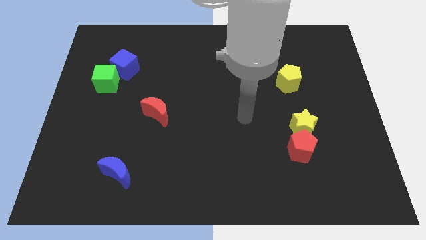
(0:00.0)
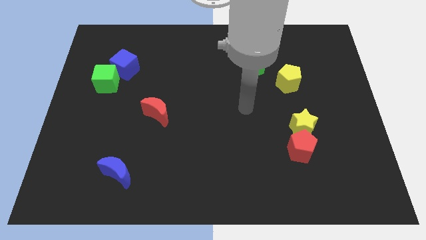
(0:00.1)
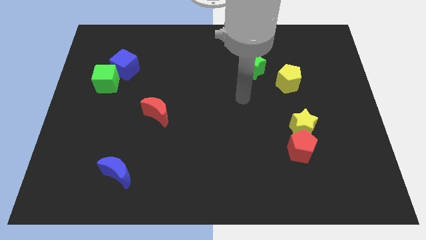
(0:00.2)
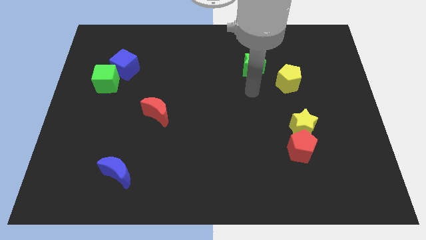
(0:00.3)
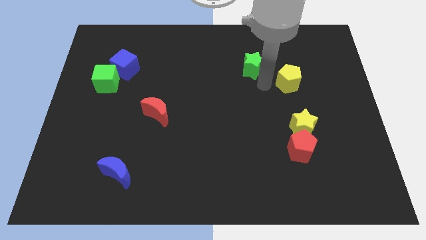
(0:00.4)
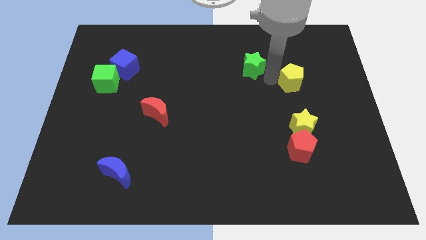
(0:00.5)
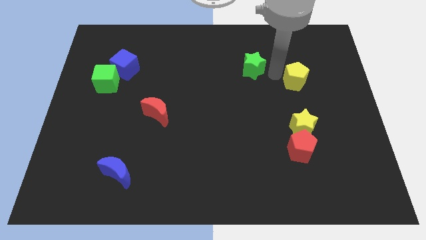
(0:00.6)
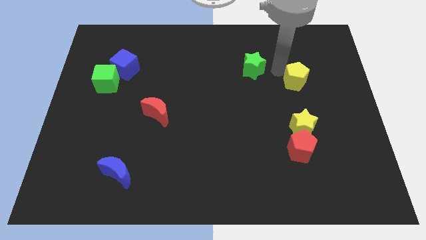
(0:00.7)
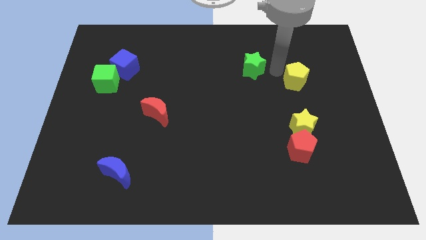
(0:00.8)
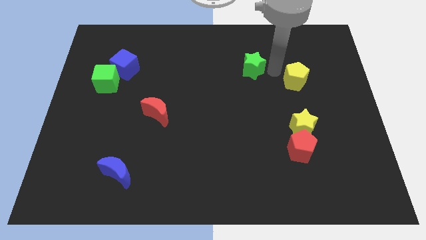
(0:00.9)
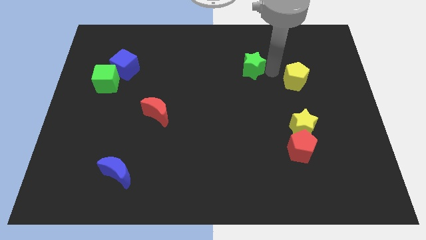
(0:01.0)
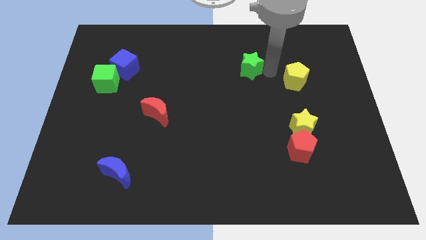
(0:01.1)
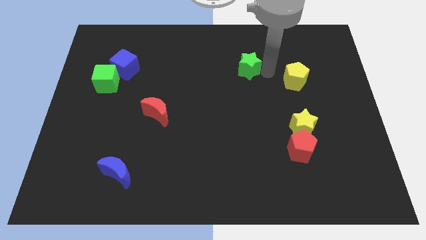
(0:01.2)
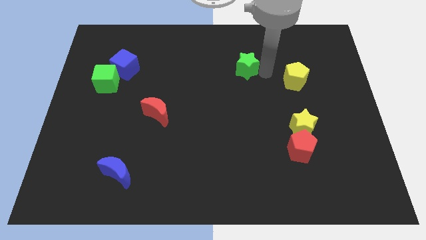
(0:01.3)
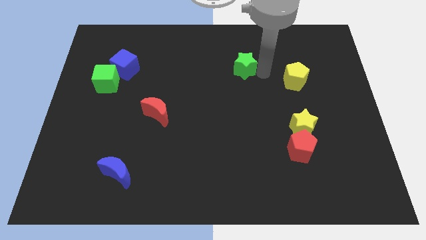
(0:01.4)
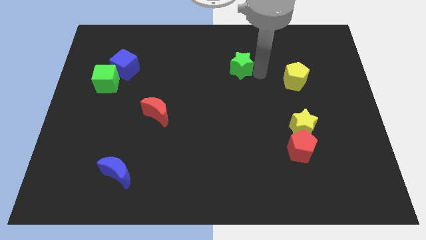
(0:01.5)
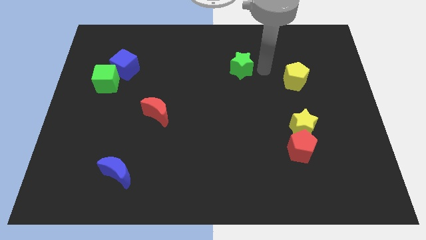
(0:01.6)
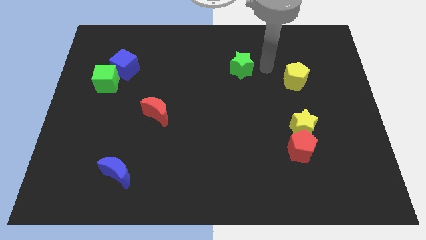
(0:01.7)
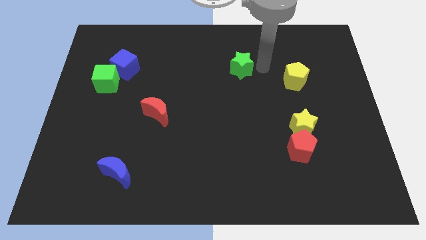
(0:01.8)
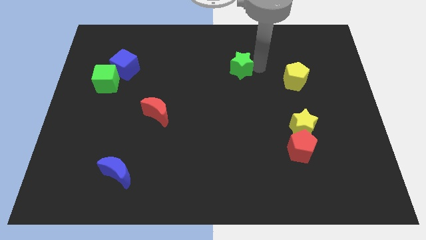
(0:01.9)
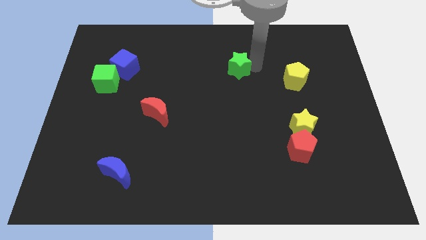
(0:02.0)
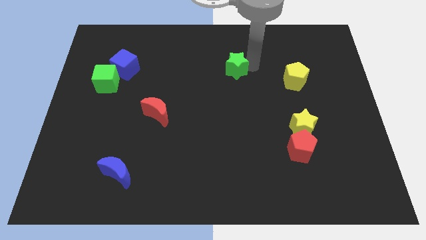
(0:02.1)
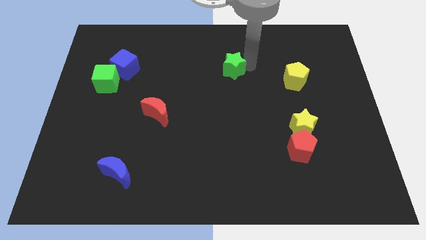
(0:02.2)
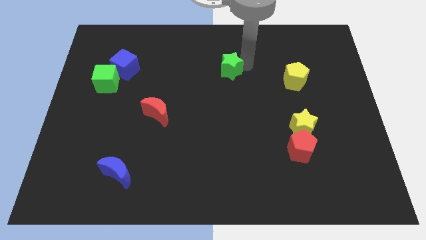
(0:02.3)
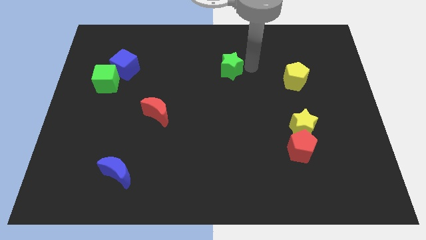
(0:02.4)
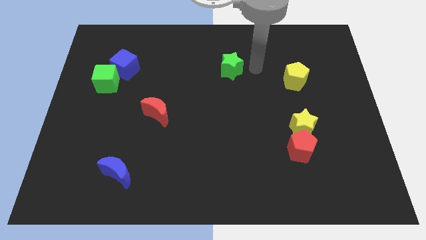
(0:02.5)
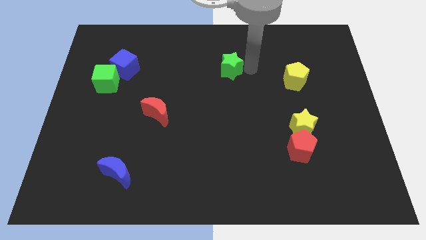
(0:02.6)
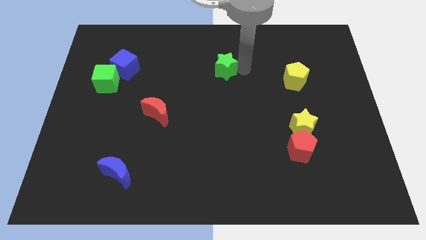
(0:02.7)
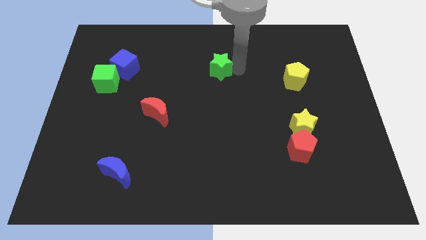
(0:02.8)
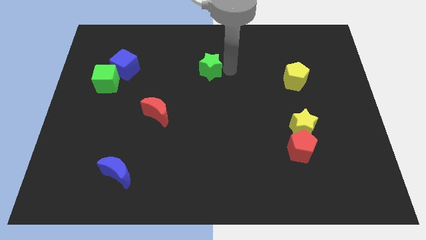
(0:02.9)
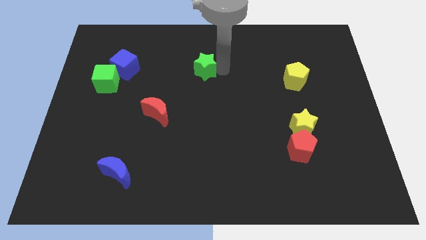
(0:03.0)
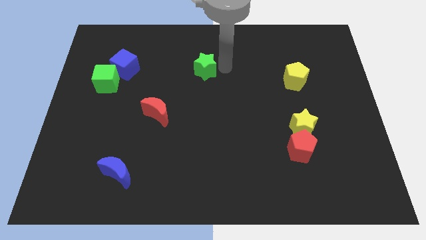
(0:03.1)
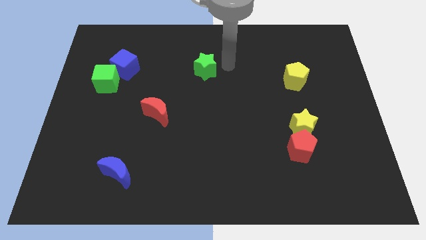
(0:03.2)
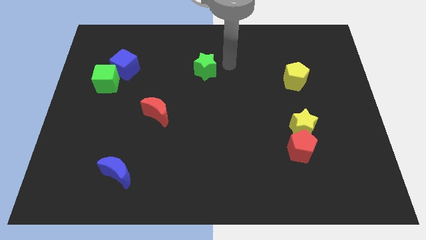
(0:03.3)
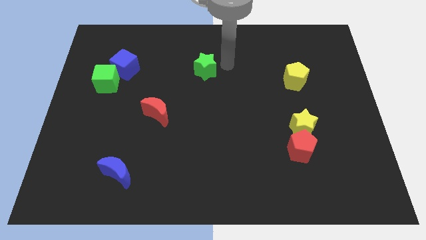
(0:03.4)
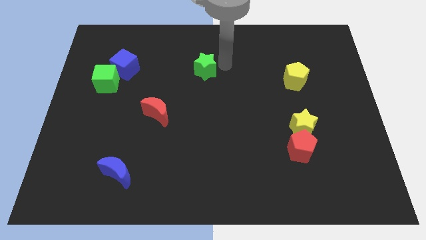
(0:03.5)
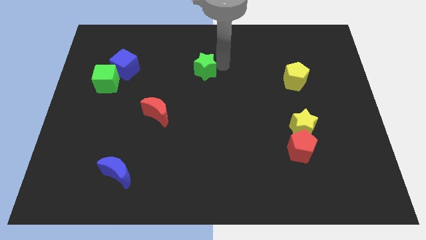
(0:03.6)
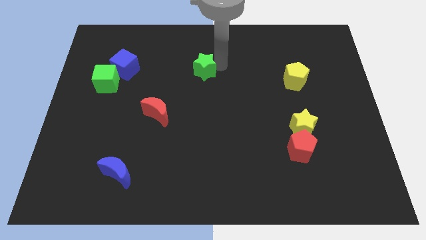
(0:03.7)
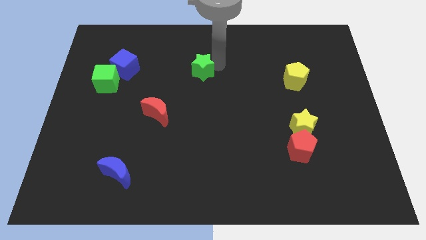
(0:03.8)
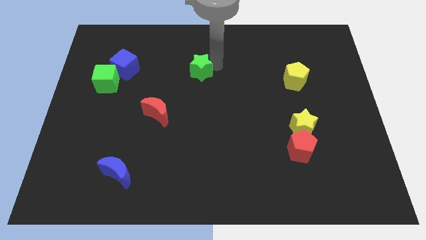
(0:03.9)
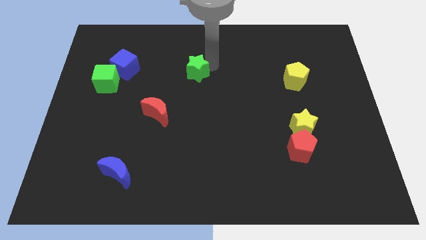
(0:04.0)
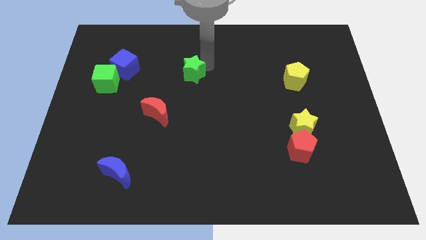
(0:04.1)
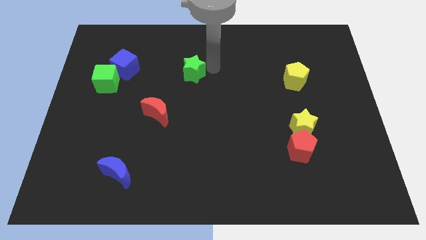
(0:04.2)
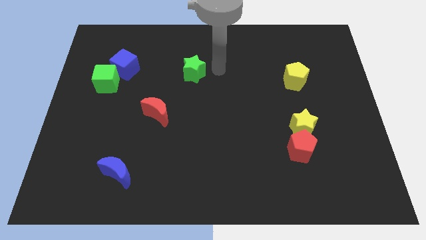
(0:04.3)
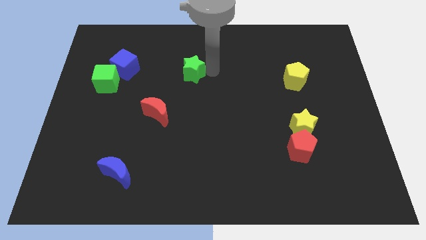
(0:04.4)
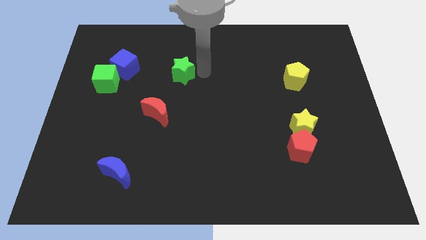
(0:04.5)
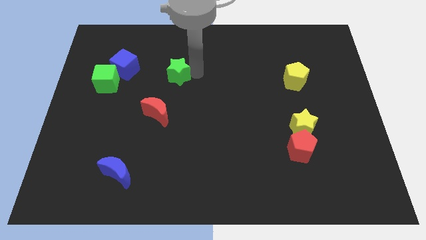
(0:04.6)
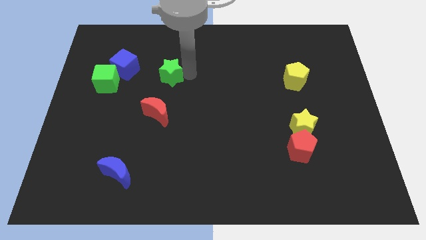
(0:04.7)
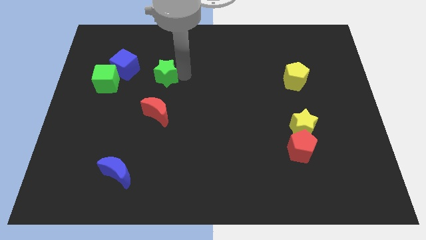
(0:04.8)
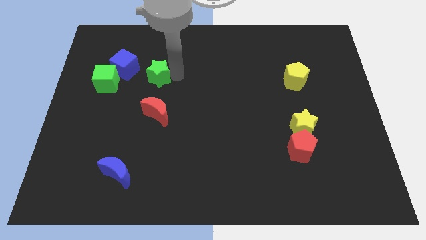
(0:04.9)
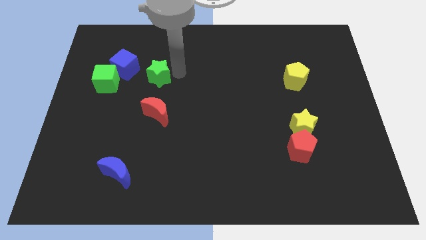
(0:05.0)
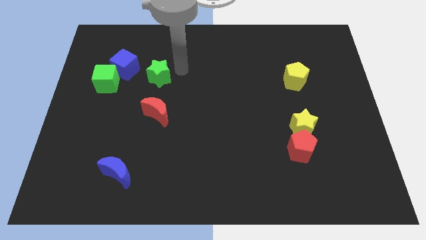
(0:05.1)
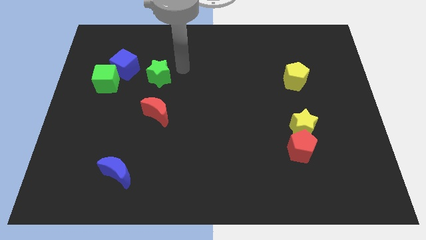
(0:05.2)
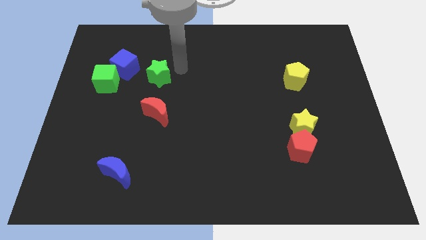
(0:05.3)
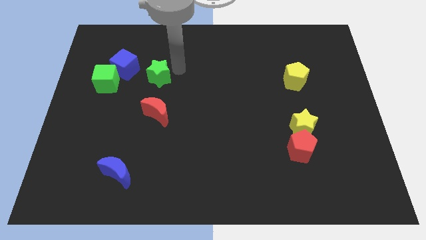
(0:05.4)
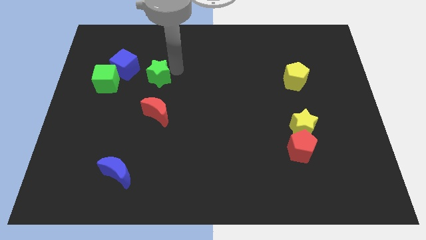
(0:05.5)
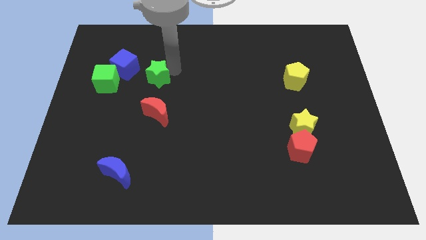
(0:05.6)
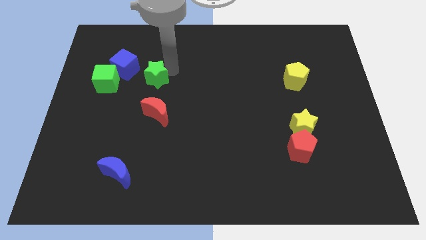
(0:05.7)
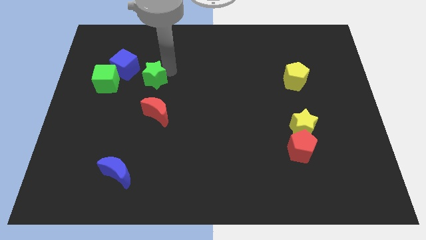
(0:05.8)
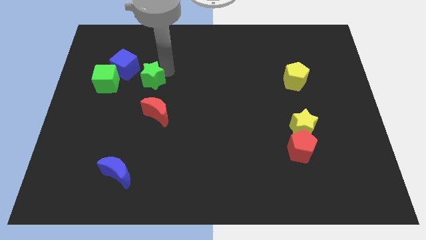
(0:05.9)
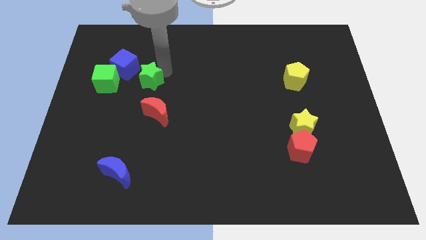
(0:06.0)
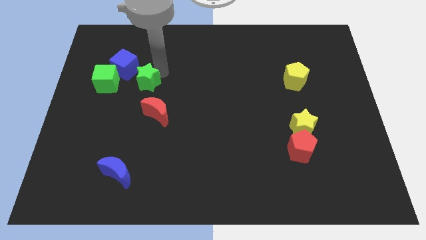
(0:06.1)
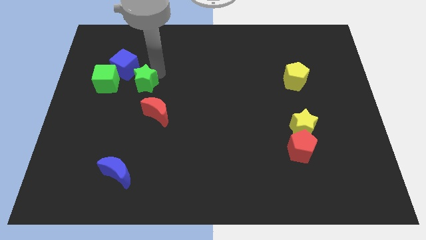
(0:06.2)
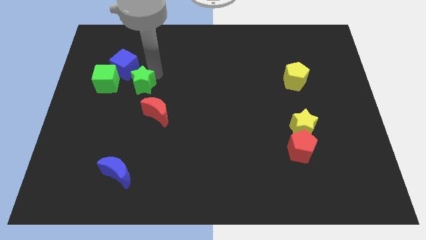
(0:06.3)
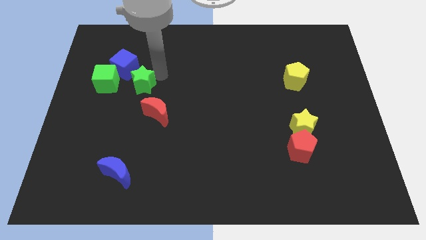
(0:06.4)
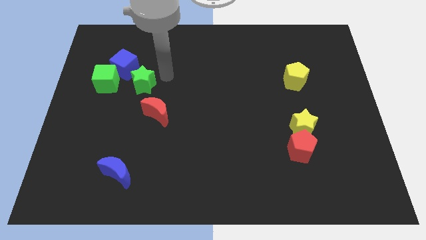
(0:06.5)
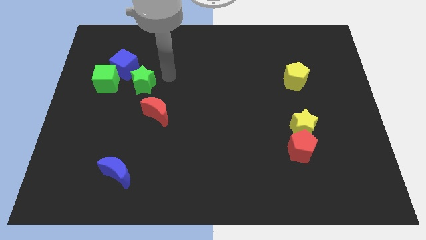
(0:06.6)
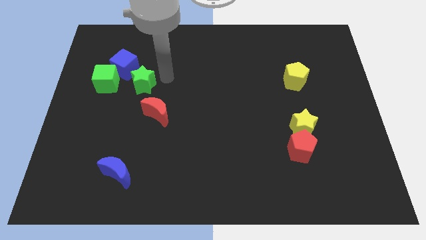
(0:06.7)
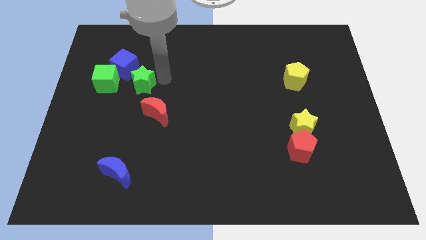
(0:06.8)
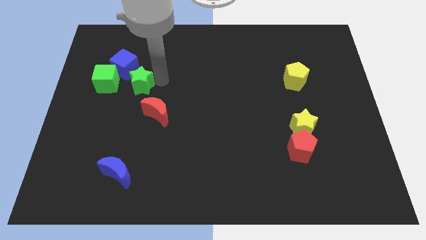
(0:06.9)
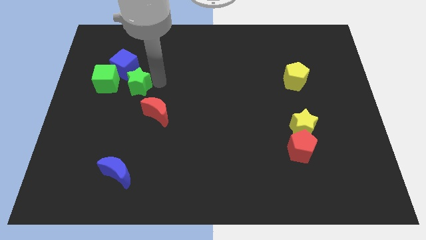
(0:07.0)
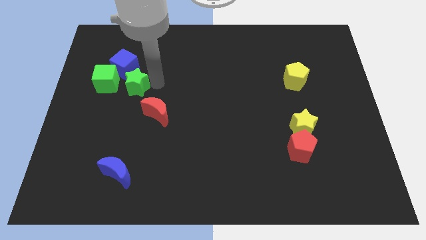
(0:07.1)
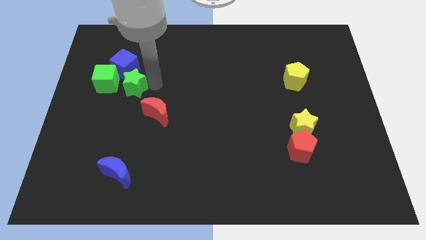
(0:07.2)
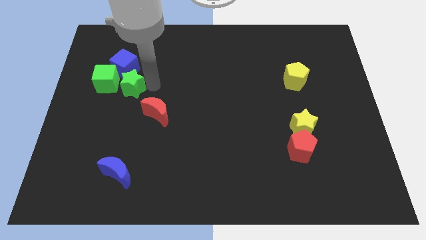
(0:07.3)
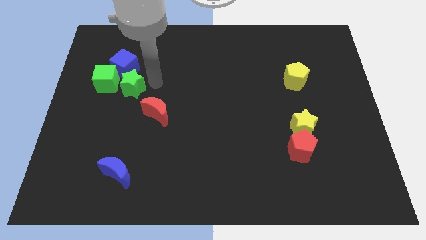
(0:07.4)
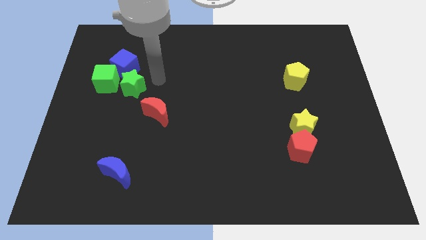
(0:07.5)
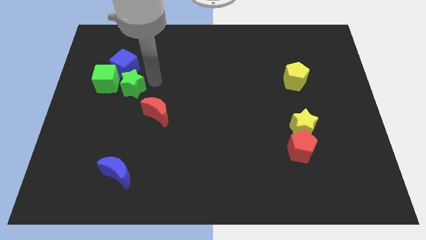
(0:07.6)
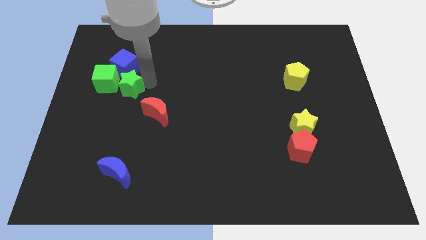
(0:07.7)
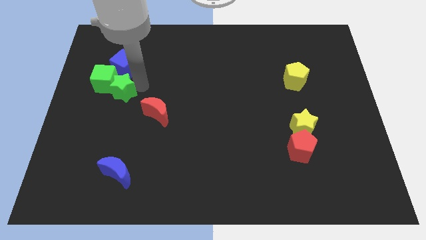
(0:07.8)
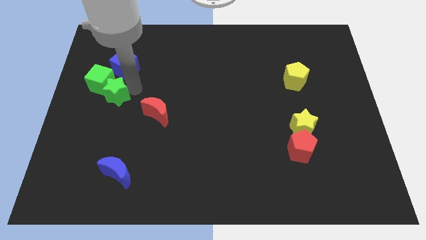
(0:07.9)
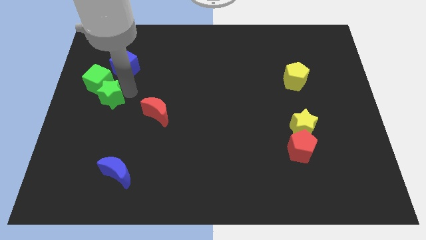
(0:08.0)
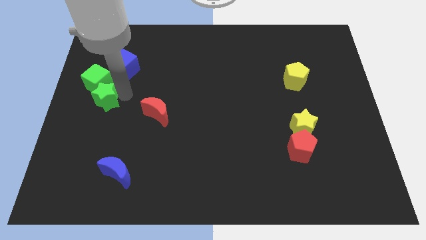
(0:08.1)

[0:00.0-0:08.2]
move the green star to the center left

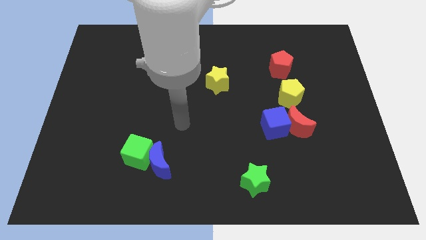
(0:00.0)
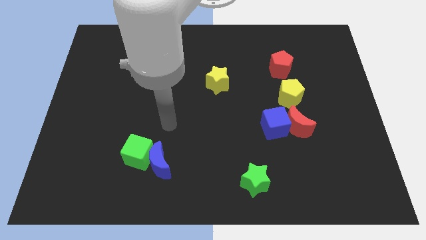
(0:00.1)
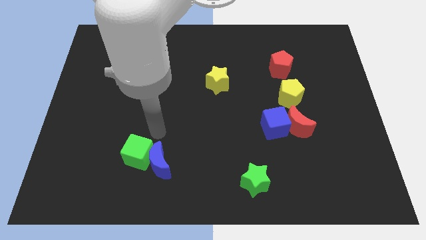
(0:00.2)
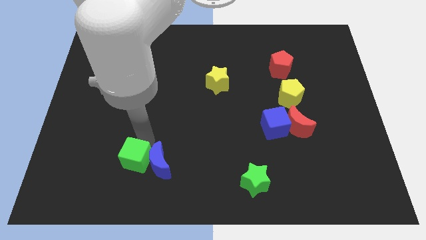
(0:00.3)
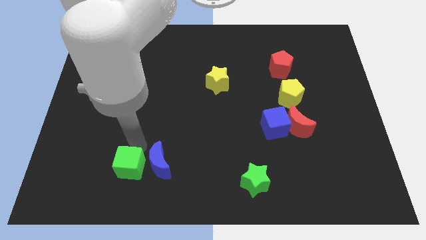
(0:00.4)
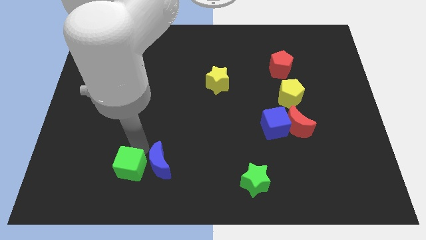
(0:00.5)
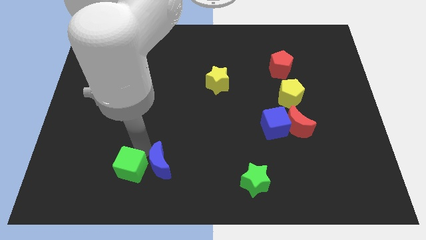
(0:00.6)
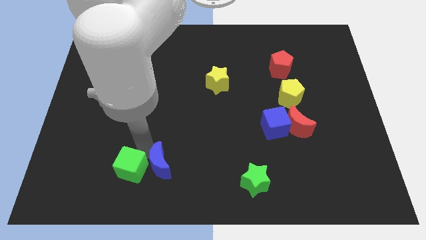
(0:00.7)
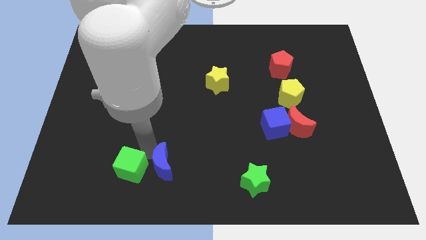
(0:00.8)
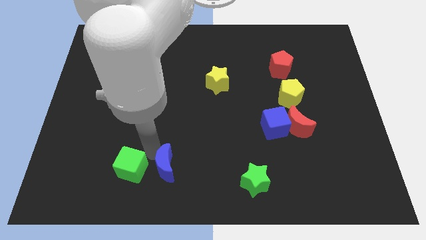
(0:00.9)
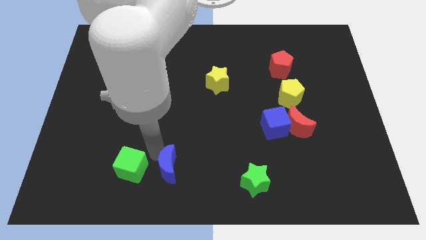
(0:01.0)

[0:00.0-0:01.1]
push the blue moon to the bottom side
